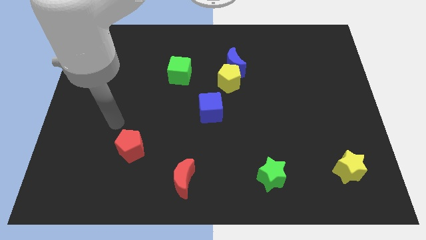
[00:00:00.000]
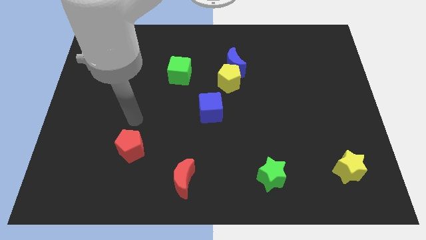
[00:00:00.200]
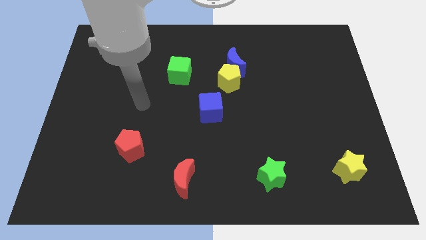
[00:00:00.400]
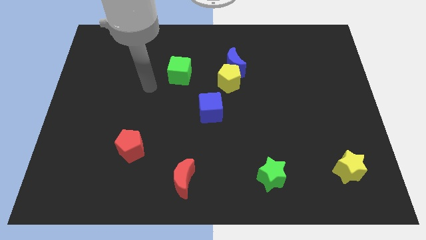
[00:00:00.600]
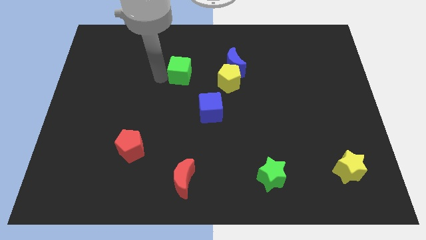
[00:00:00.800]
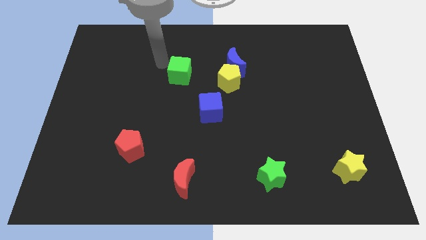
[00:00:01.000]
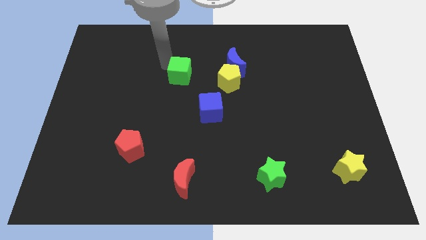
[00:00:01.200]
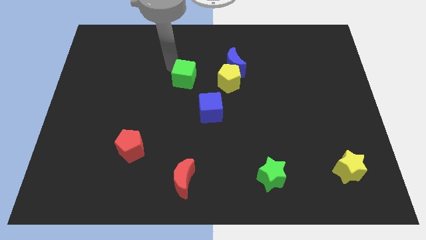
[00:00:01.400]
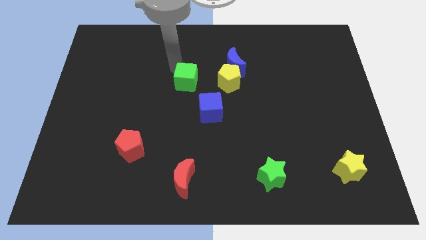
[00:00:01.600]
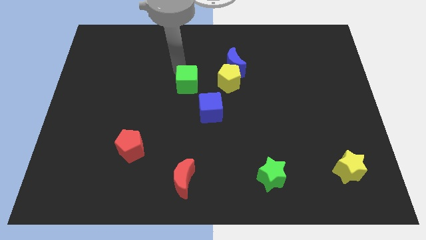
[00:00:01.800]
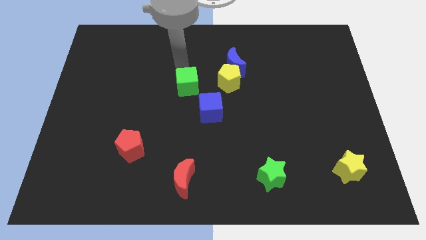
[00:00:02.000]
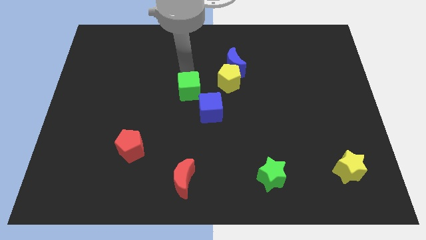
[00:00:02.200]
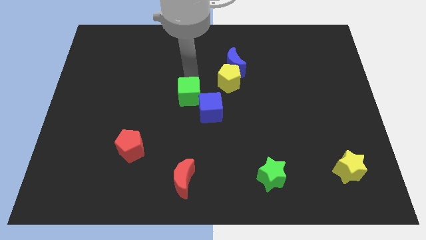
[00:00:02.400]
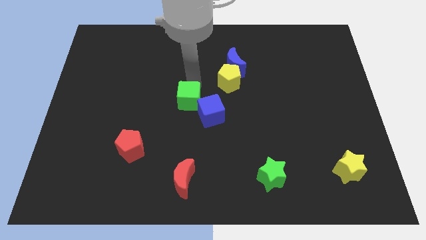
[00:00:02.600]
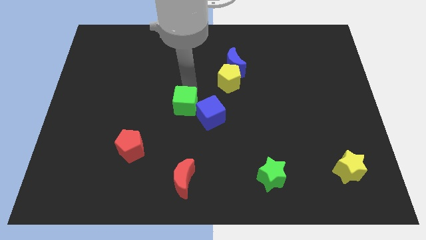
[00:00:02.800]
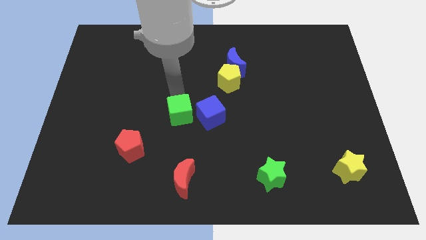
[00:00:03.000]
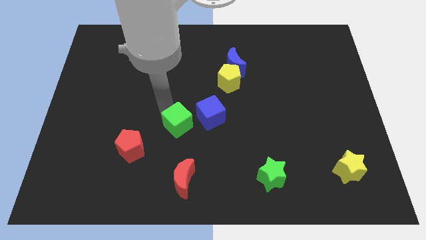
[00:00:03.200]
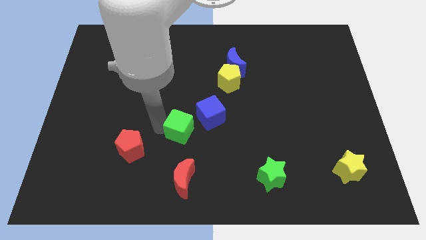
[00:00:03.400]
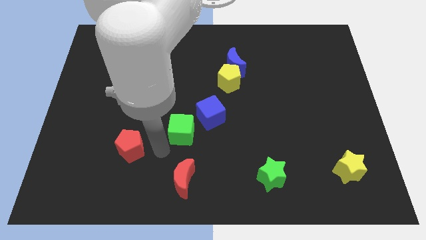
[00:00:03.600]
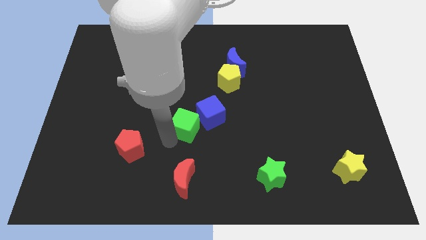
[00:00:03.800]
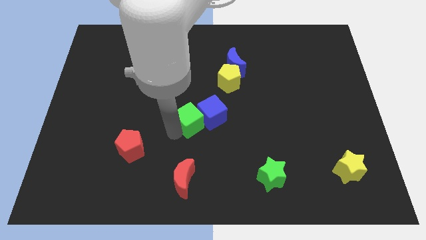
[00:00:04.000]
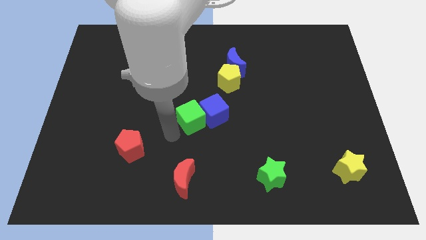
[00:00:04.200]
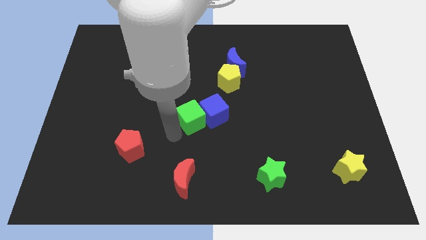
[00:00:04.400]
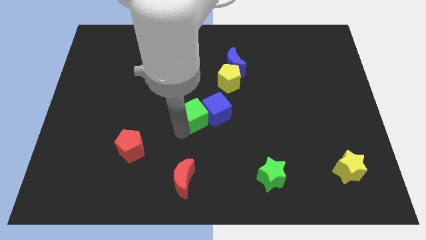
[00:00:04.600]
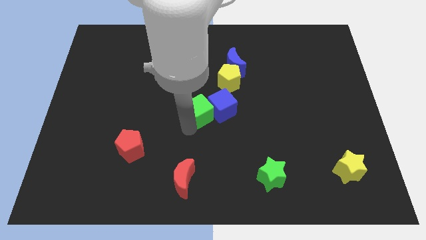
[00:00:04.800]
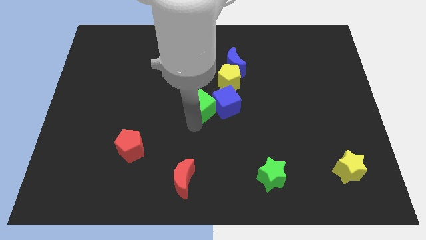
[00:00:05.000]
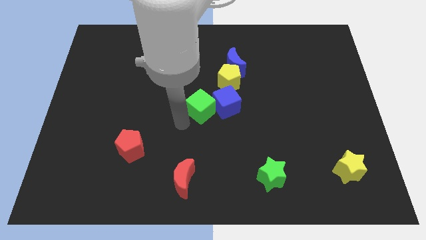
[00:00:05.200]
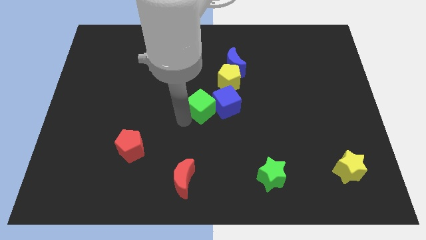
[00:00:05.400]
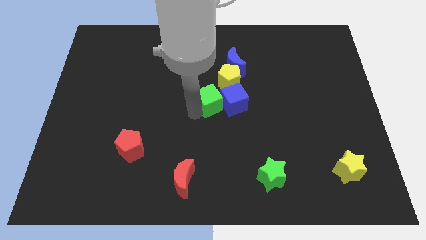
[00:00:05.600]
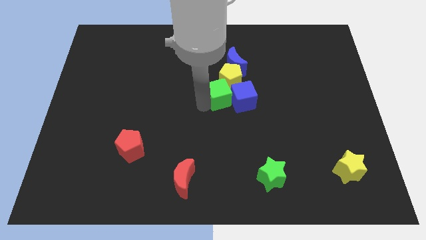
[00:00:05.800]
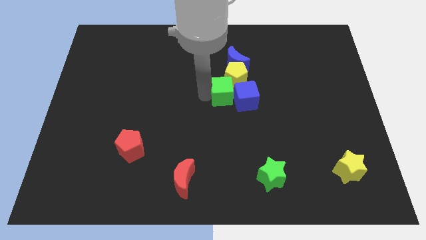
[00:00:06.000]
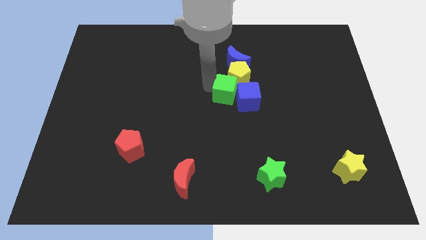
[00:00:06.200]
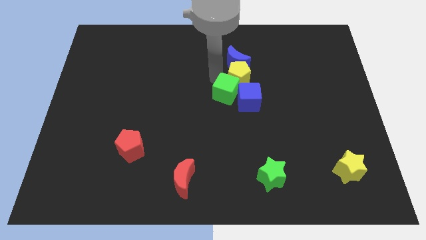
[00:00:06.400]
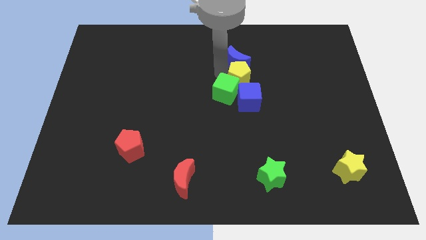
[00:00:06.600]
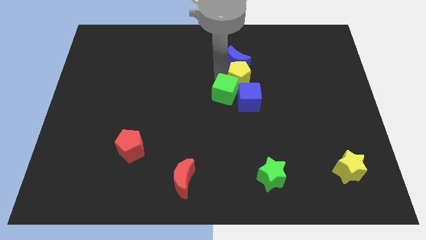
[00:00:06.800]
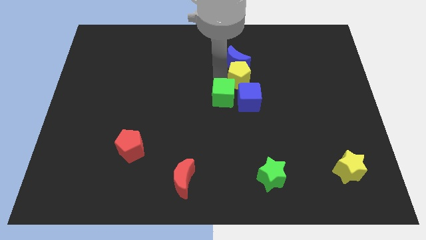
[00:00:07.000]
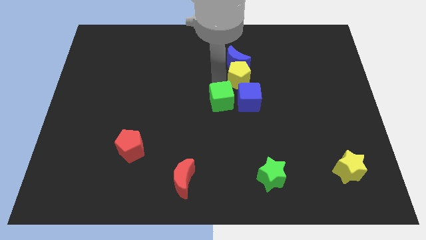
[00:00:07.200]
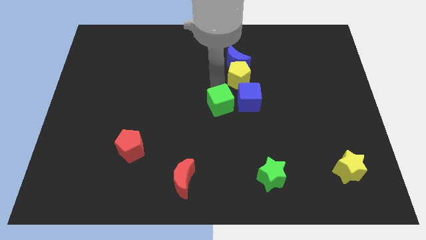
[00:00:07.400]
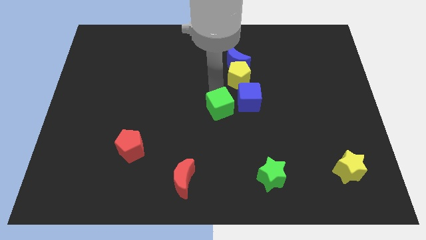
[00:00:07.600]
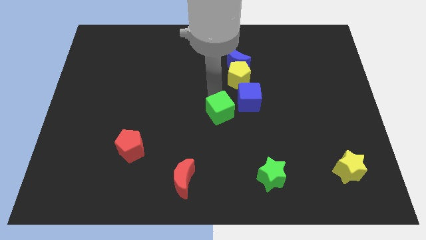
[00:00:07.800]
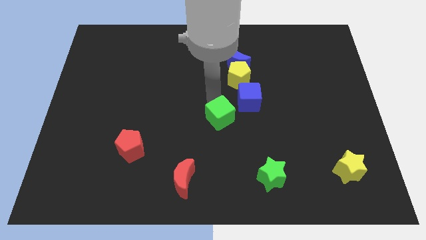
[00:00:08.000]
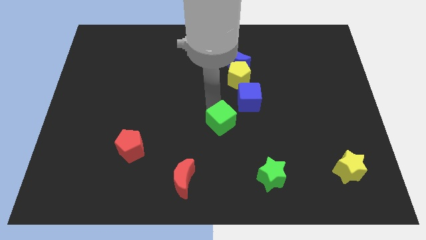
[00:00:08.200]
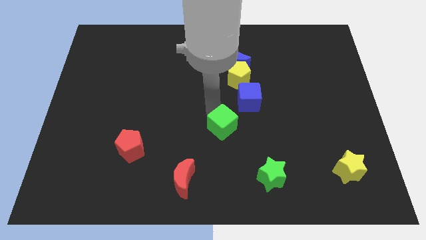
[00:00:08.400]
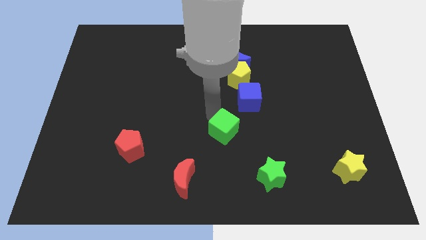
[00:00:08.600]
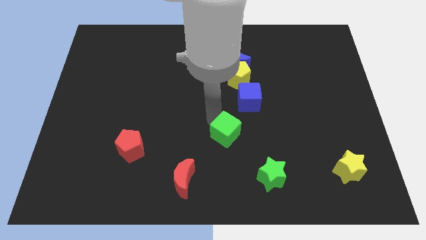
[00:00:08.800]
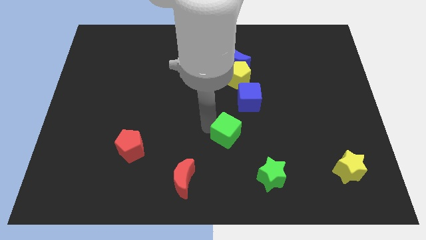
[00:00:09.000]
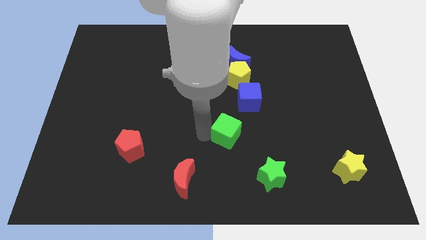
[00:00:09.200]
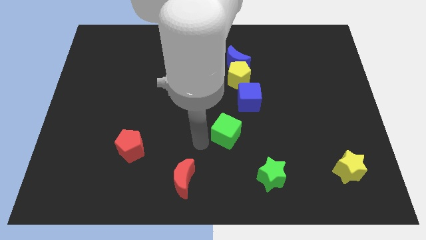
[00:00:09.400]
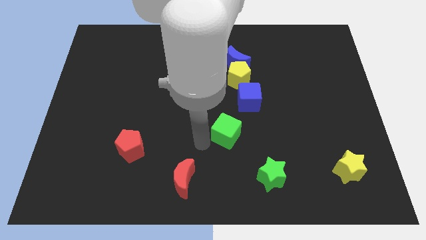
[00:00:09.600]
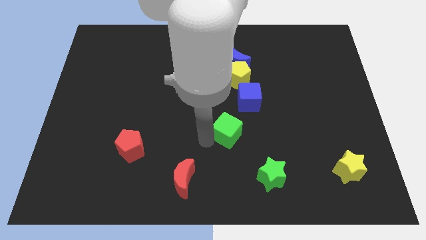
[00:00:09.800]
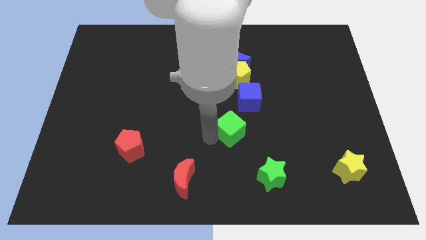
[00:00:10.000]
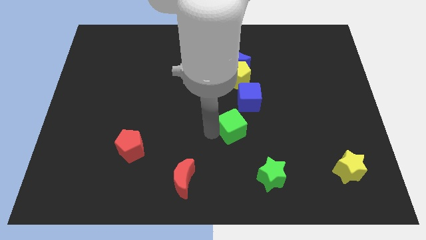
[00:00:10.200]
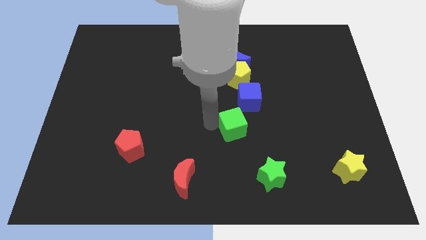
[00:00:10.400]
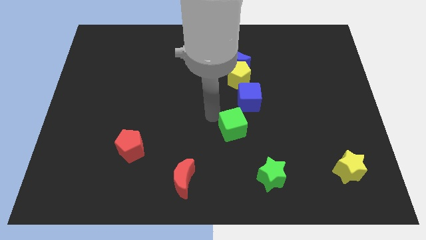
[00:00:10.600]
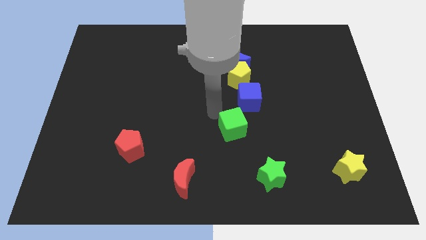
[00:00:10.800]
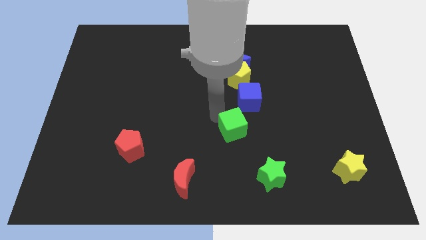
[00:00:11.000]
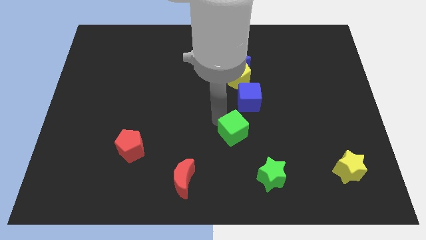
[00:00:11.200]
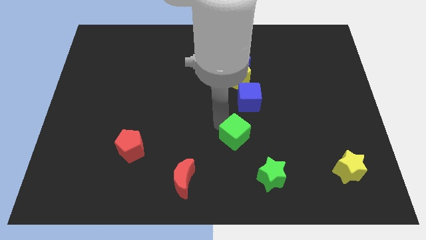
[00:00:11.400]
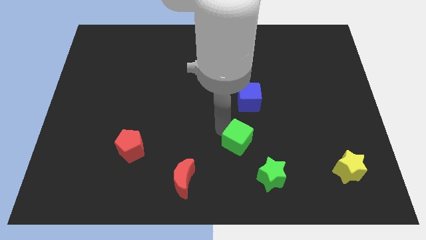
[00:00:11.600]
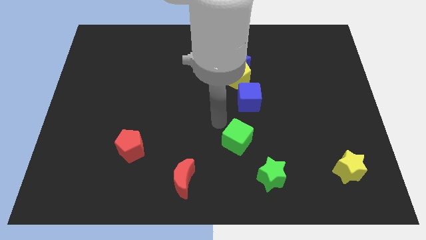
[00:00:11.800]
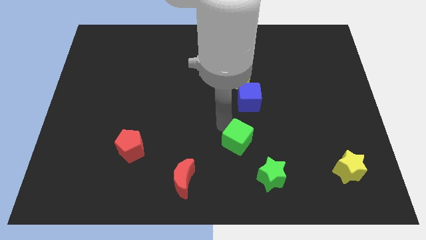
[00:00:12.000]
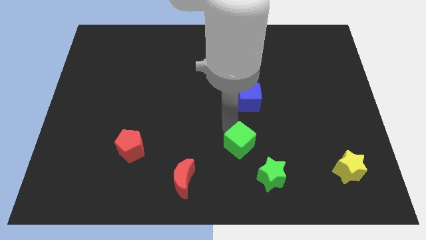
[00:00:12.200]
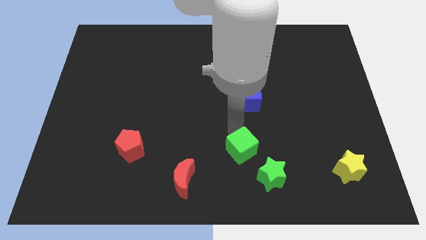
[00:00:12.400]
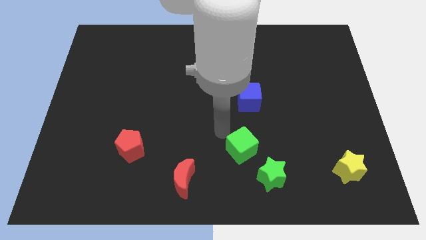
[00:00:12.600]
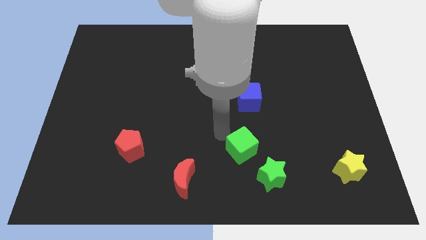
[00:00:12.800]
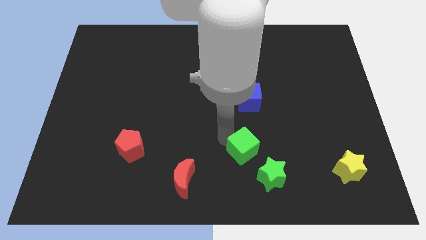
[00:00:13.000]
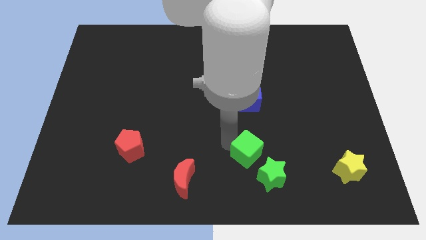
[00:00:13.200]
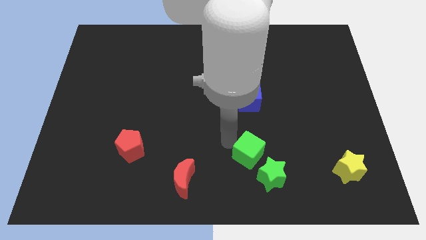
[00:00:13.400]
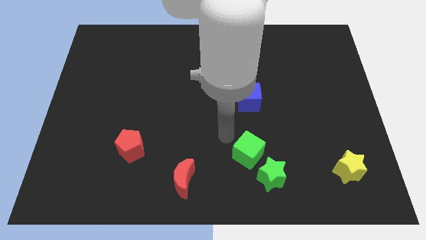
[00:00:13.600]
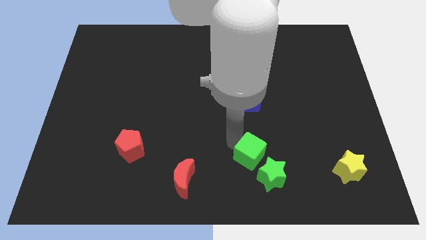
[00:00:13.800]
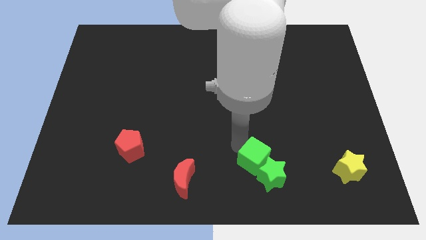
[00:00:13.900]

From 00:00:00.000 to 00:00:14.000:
push the green cube next to the green star
